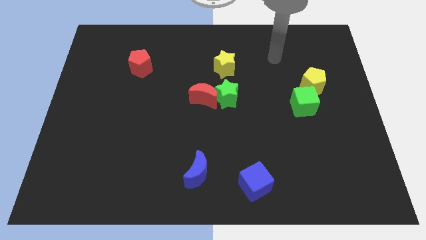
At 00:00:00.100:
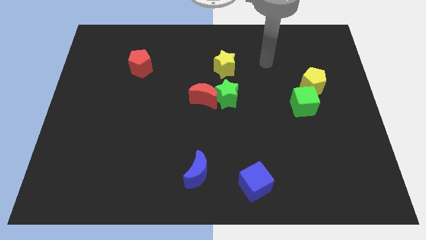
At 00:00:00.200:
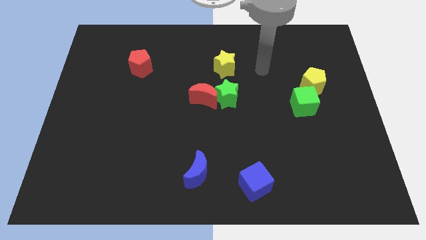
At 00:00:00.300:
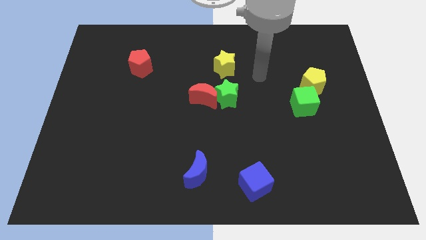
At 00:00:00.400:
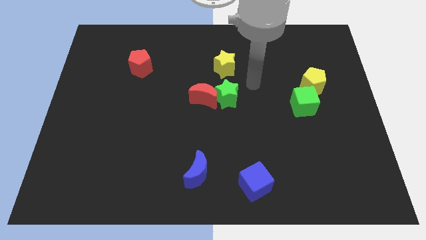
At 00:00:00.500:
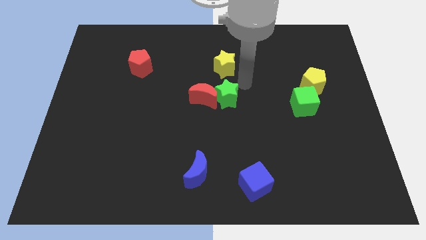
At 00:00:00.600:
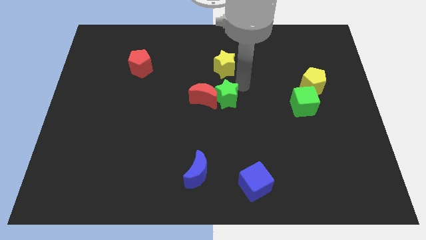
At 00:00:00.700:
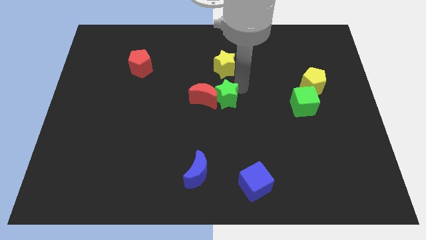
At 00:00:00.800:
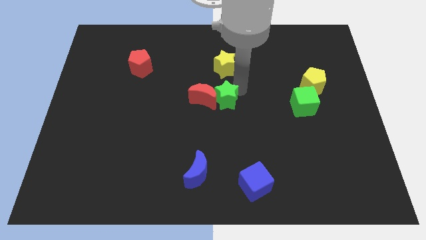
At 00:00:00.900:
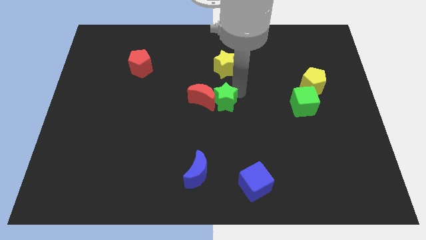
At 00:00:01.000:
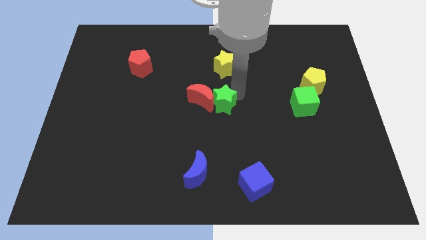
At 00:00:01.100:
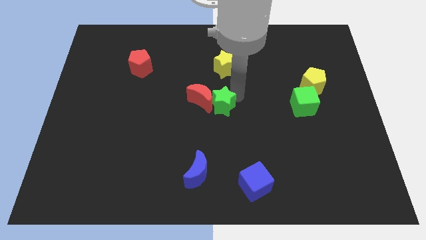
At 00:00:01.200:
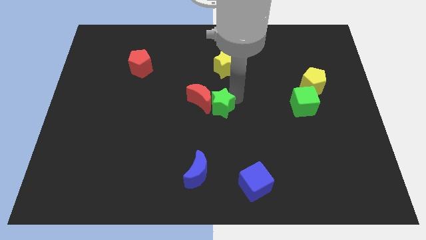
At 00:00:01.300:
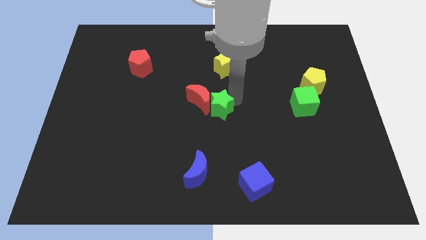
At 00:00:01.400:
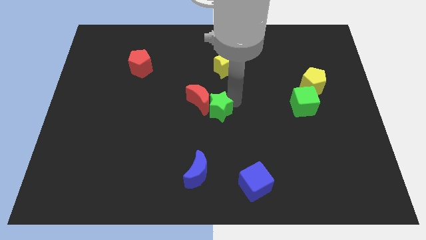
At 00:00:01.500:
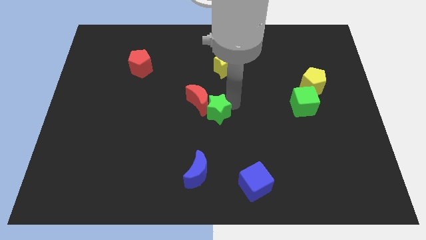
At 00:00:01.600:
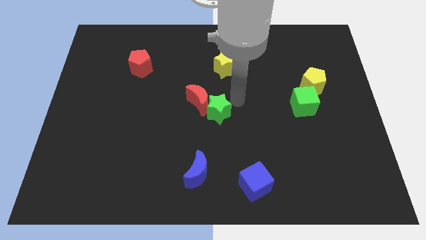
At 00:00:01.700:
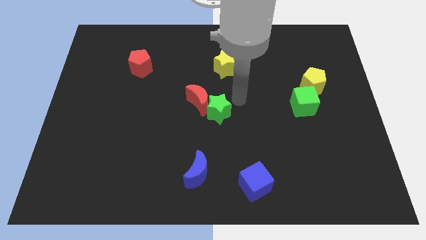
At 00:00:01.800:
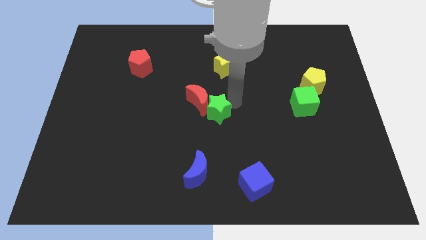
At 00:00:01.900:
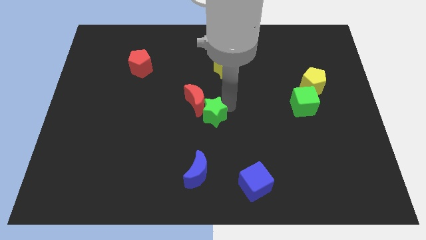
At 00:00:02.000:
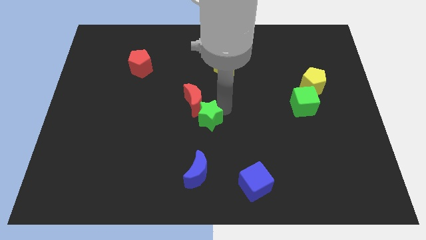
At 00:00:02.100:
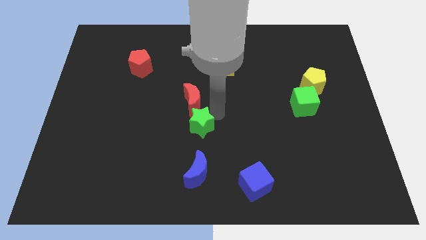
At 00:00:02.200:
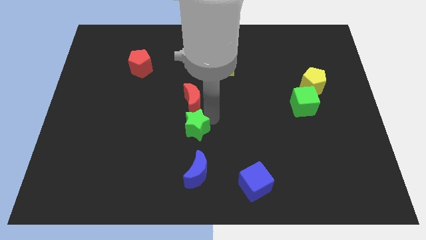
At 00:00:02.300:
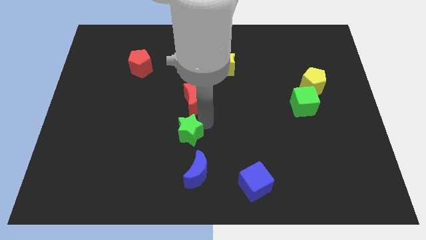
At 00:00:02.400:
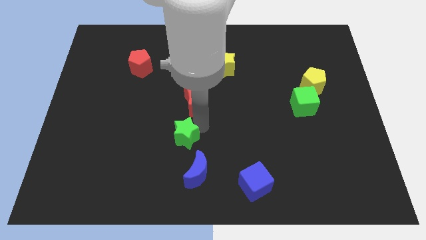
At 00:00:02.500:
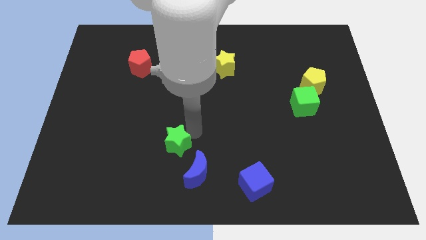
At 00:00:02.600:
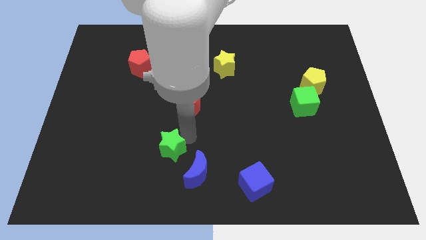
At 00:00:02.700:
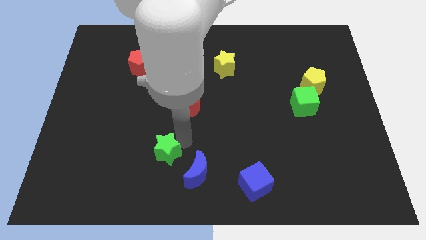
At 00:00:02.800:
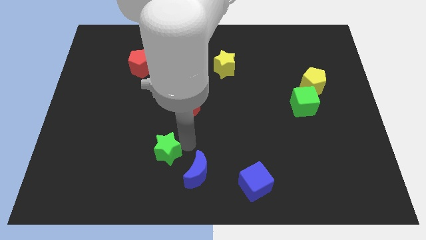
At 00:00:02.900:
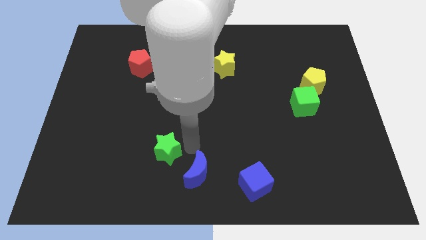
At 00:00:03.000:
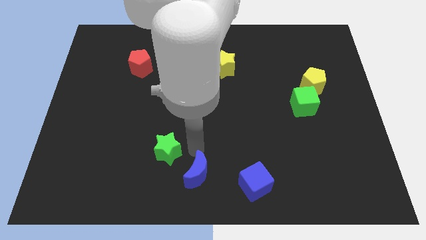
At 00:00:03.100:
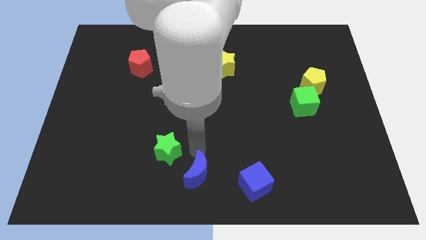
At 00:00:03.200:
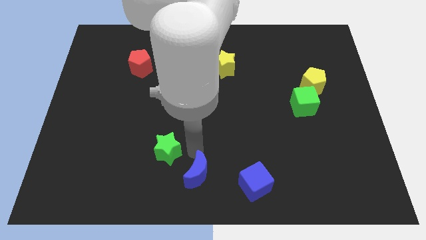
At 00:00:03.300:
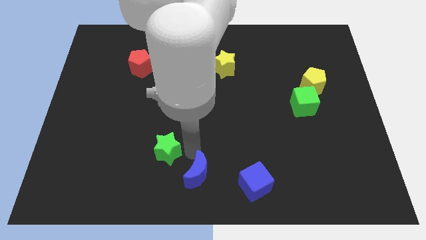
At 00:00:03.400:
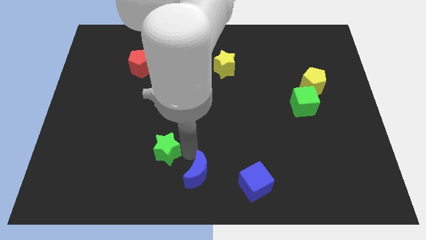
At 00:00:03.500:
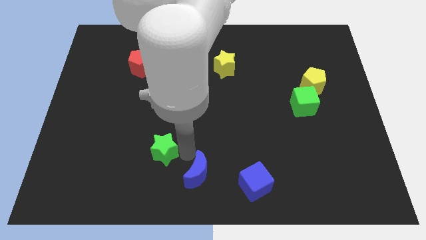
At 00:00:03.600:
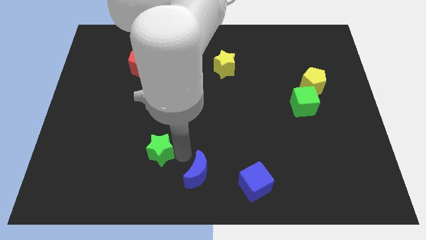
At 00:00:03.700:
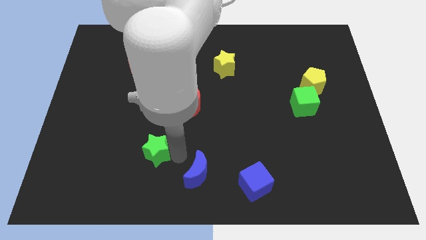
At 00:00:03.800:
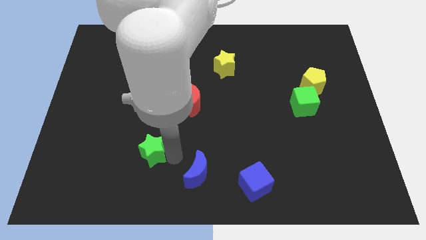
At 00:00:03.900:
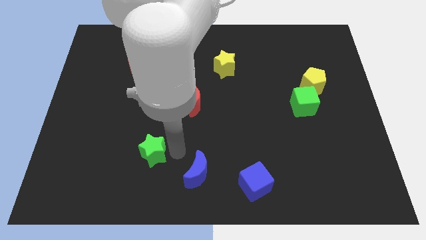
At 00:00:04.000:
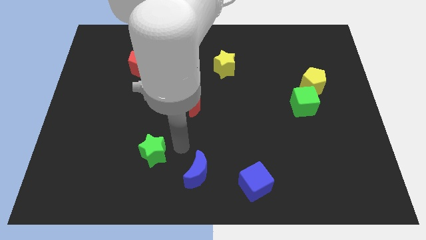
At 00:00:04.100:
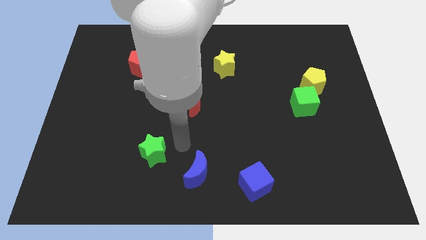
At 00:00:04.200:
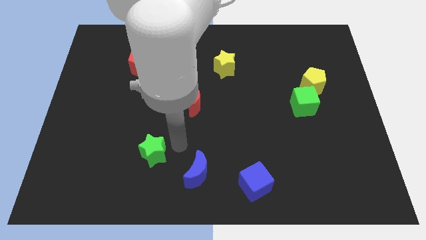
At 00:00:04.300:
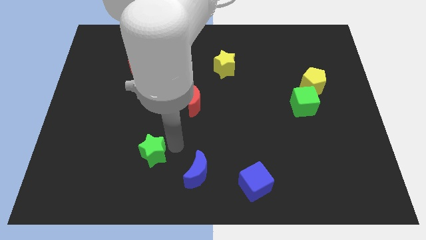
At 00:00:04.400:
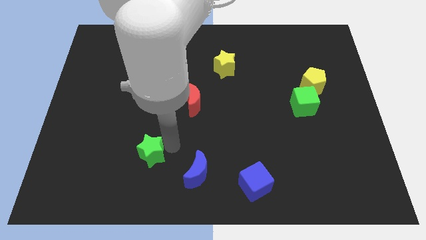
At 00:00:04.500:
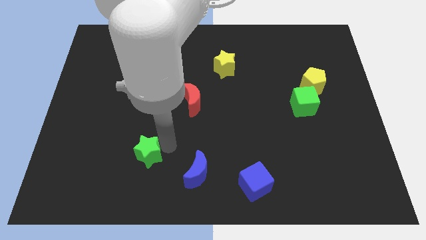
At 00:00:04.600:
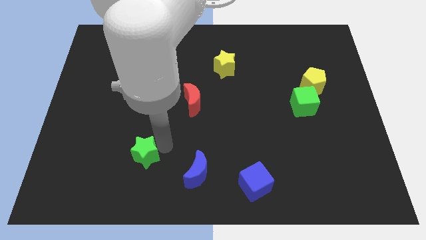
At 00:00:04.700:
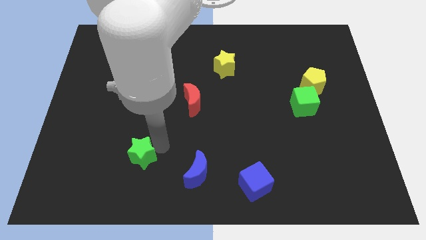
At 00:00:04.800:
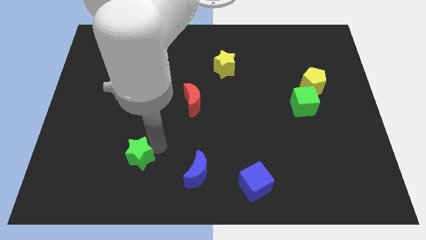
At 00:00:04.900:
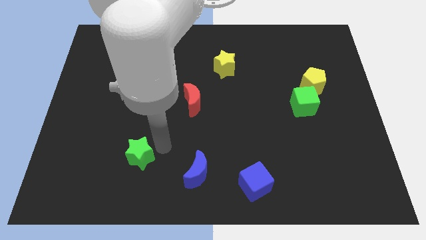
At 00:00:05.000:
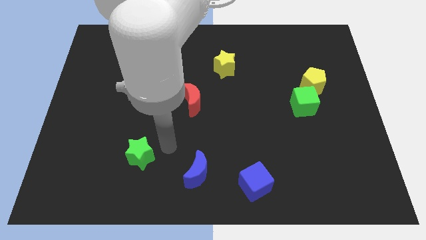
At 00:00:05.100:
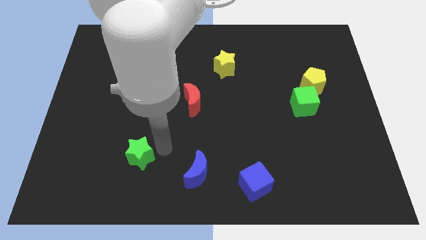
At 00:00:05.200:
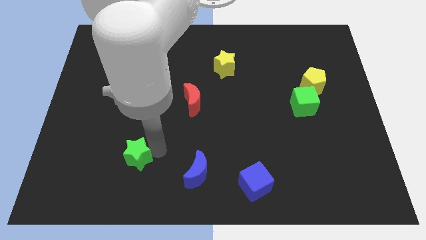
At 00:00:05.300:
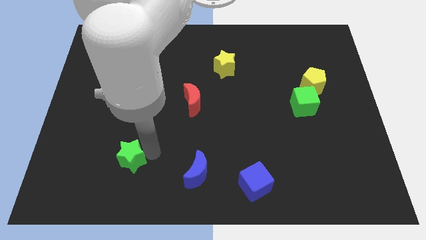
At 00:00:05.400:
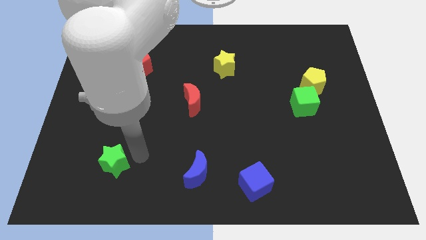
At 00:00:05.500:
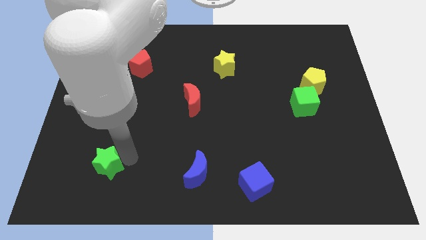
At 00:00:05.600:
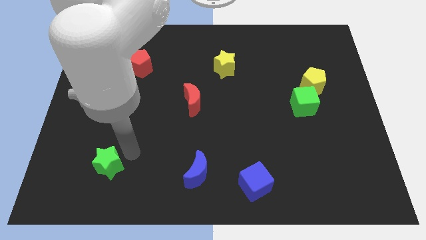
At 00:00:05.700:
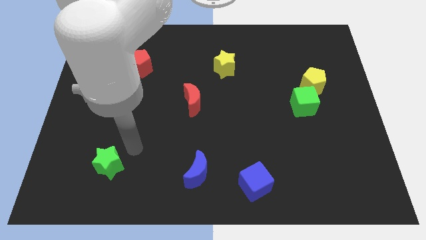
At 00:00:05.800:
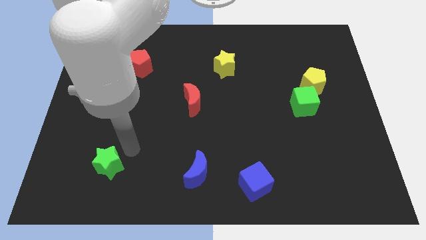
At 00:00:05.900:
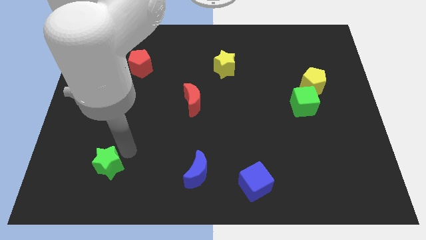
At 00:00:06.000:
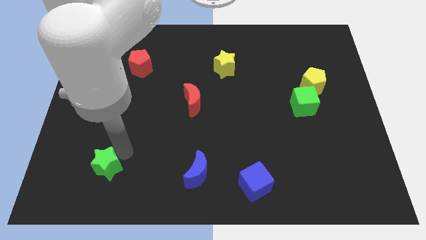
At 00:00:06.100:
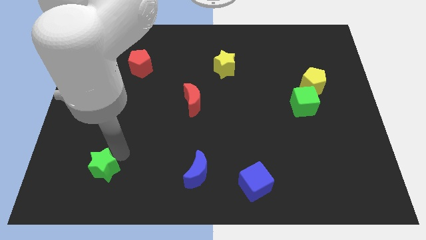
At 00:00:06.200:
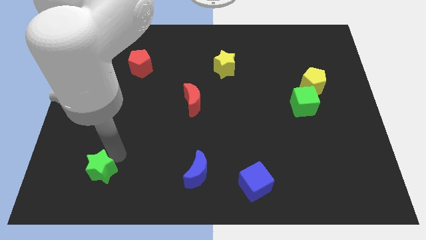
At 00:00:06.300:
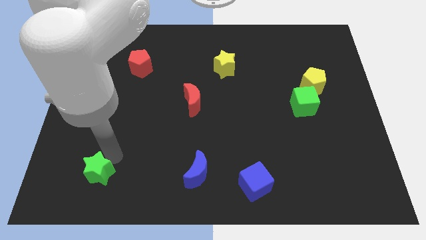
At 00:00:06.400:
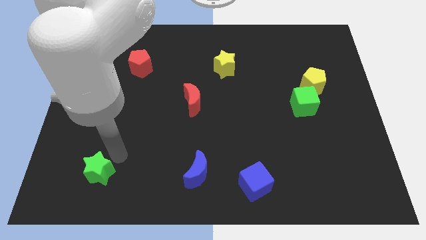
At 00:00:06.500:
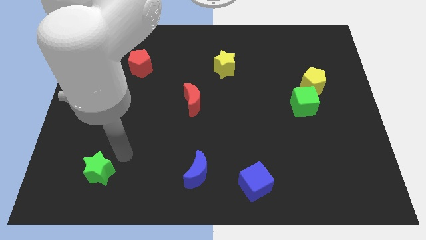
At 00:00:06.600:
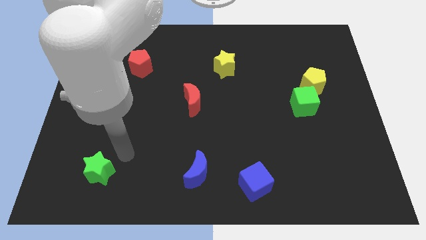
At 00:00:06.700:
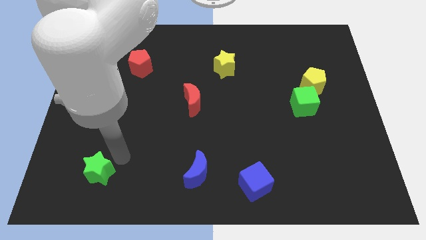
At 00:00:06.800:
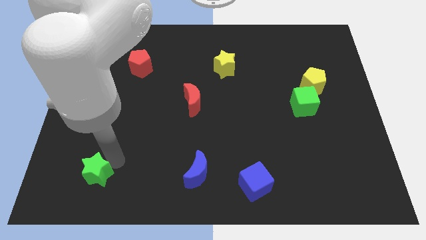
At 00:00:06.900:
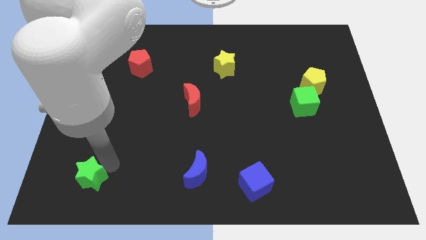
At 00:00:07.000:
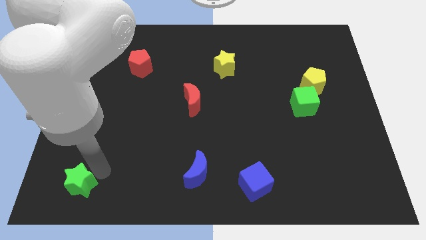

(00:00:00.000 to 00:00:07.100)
put the green star to the lower left corner
